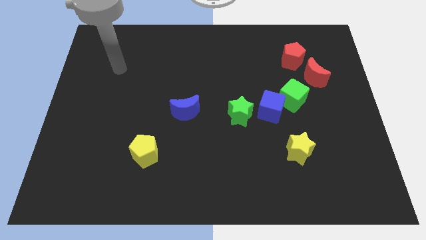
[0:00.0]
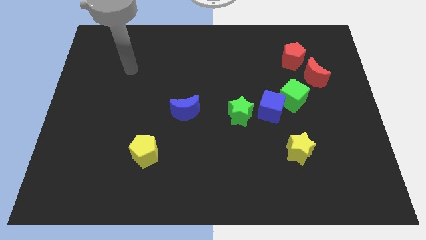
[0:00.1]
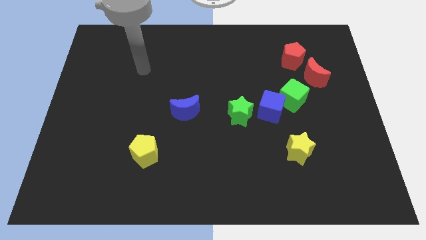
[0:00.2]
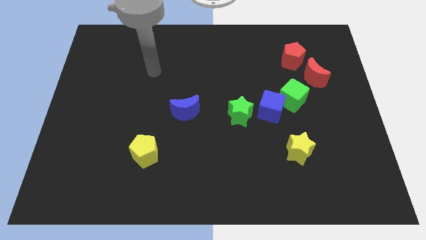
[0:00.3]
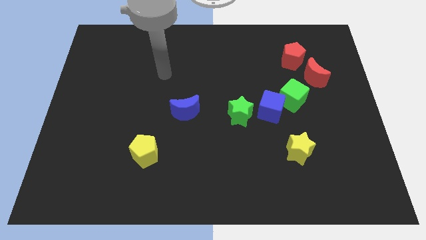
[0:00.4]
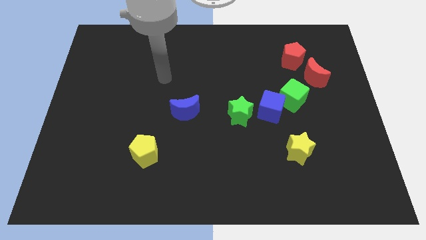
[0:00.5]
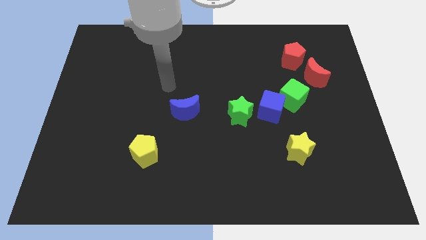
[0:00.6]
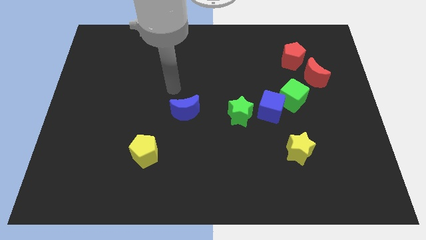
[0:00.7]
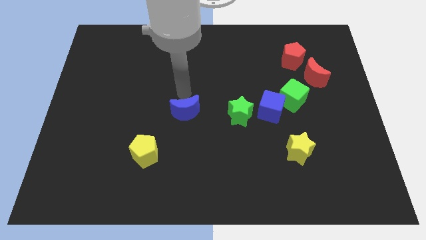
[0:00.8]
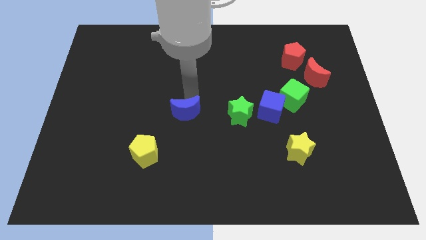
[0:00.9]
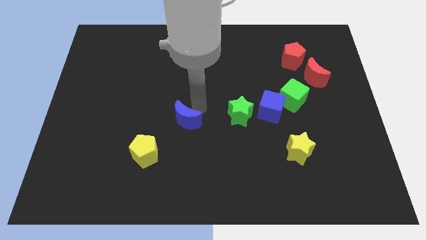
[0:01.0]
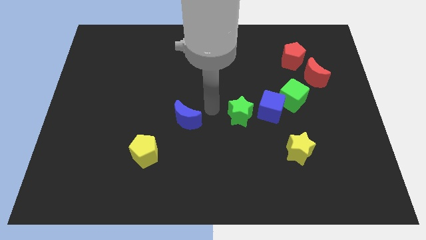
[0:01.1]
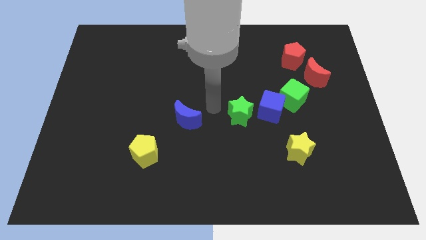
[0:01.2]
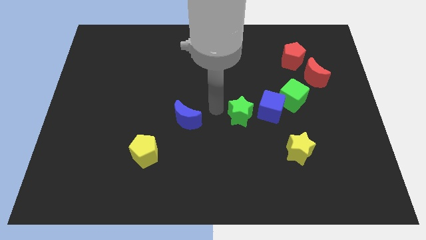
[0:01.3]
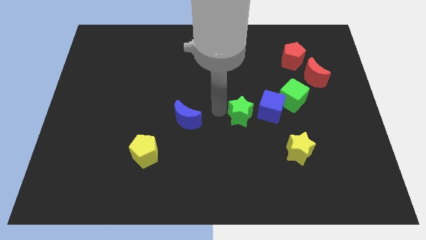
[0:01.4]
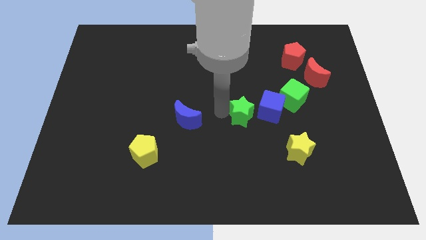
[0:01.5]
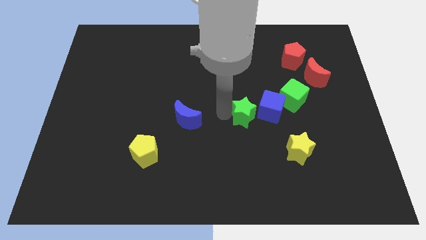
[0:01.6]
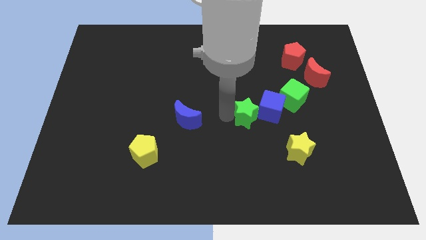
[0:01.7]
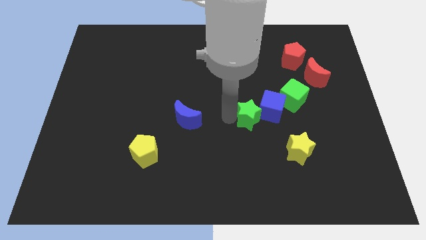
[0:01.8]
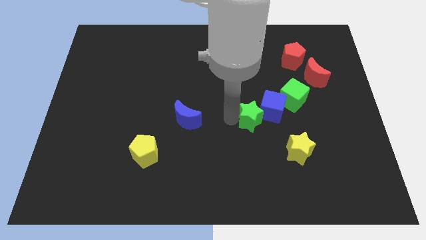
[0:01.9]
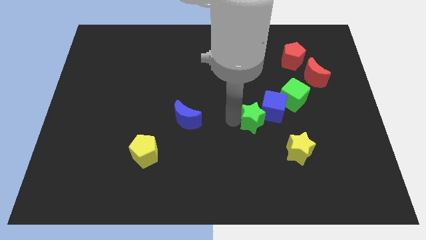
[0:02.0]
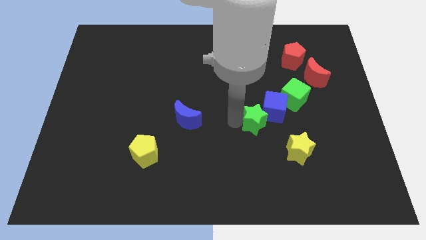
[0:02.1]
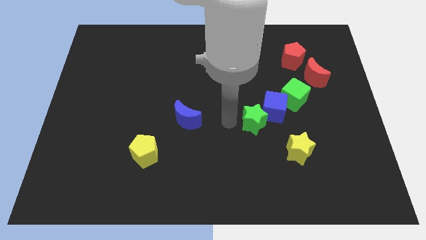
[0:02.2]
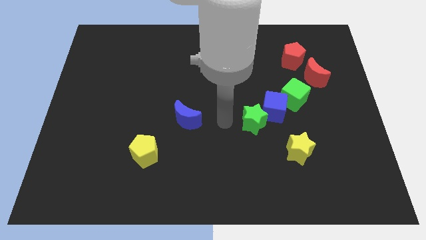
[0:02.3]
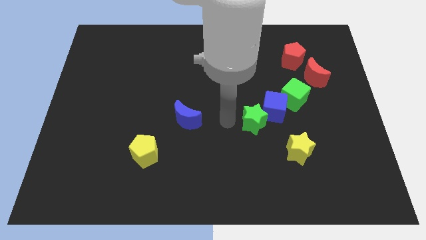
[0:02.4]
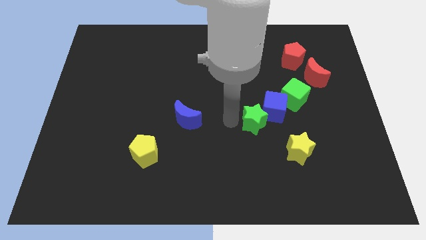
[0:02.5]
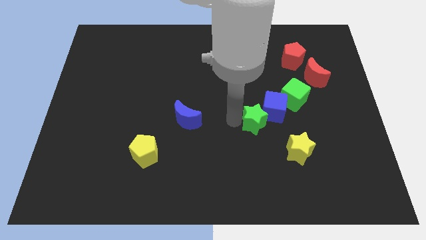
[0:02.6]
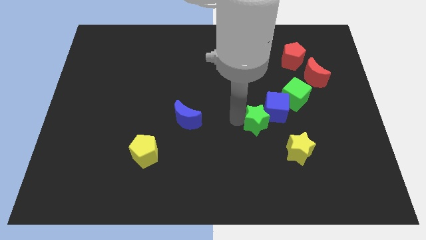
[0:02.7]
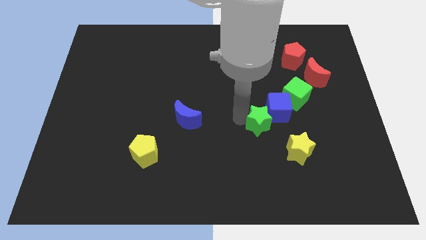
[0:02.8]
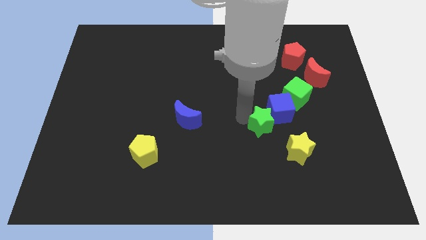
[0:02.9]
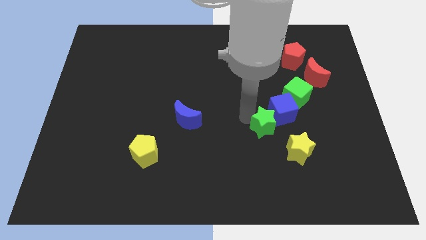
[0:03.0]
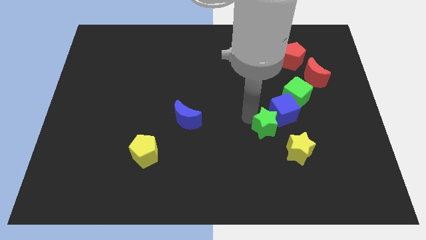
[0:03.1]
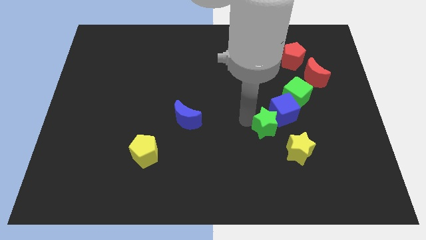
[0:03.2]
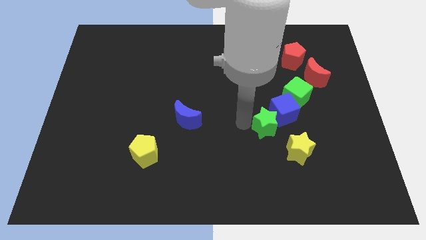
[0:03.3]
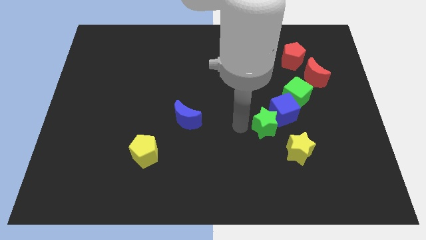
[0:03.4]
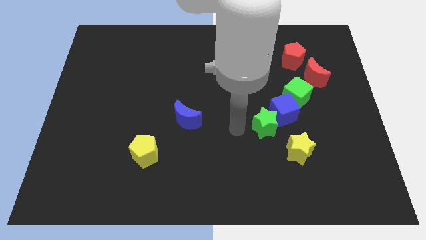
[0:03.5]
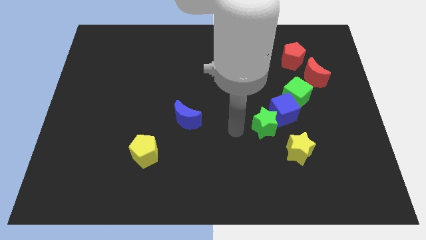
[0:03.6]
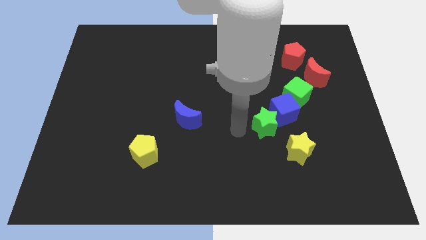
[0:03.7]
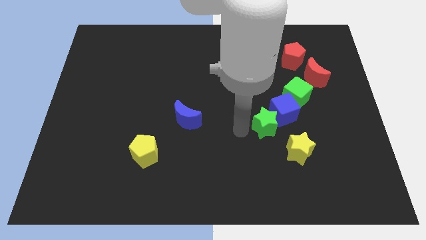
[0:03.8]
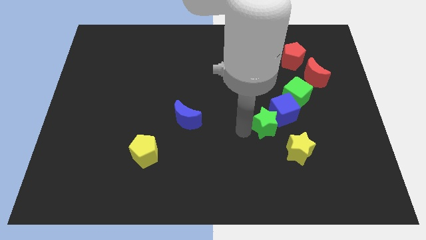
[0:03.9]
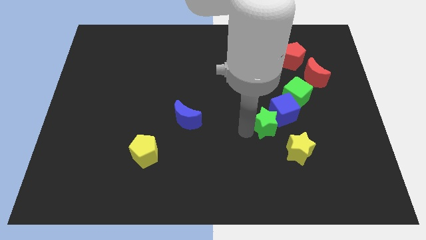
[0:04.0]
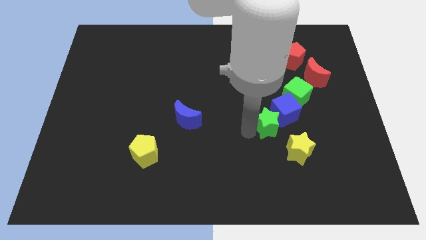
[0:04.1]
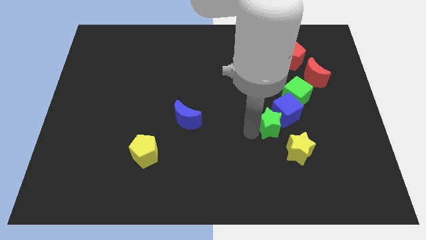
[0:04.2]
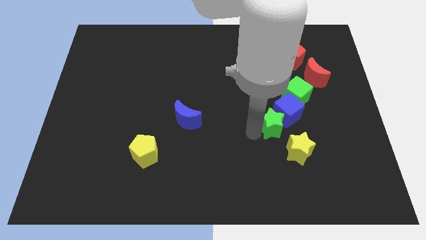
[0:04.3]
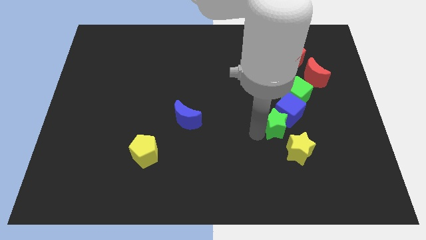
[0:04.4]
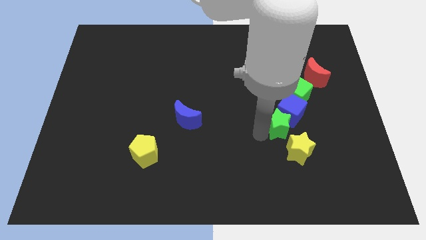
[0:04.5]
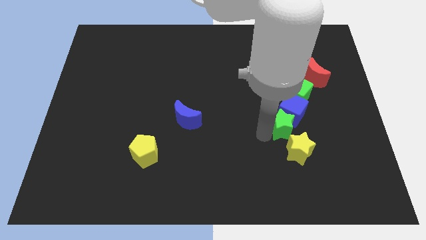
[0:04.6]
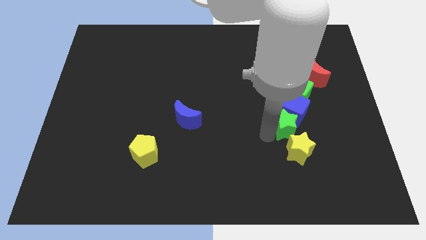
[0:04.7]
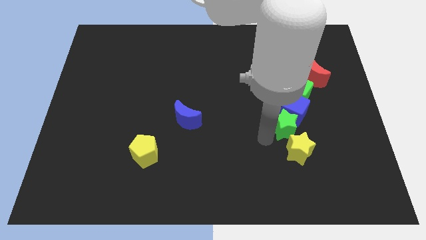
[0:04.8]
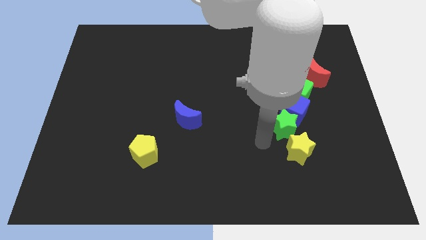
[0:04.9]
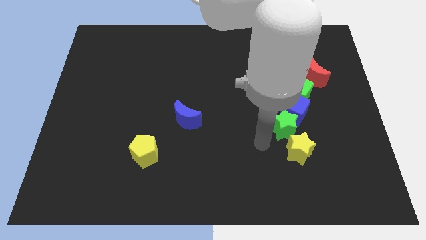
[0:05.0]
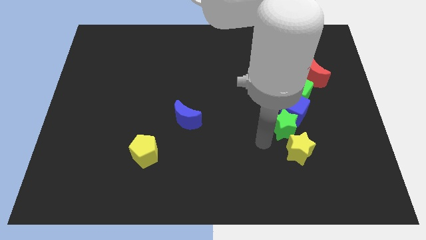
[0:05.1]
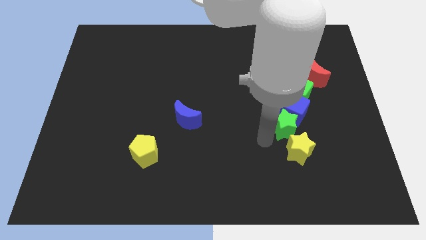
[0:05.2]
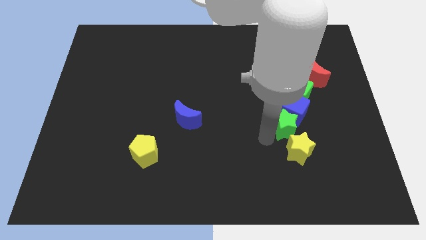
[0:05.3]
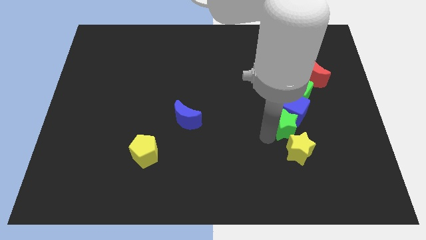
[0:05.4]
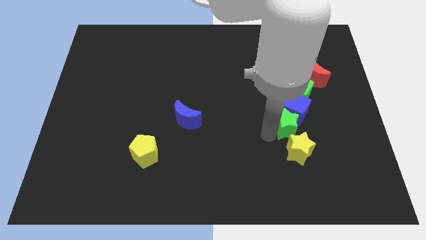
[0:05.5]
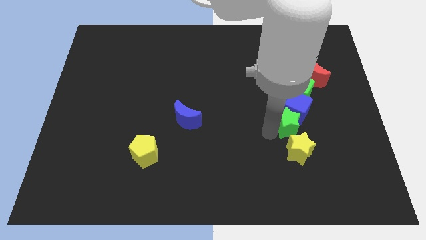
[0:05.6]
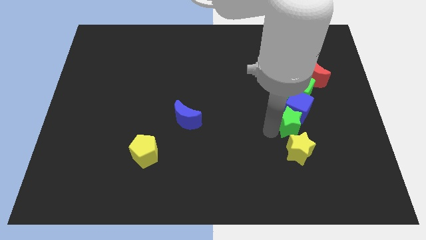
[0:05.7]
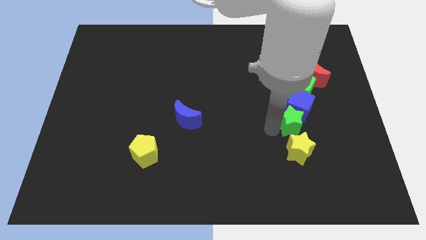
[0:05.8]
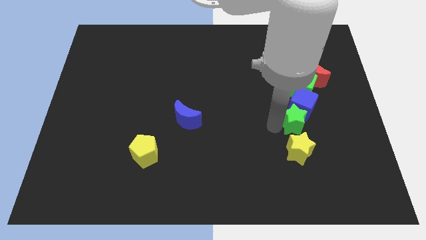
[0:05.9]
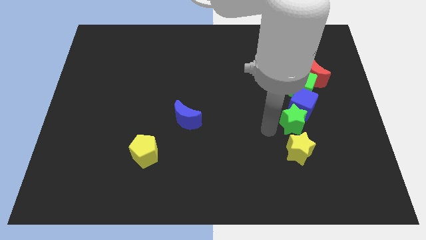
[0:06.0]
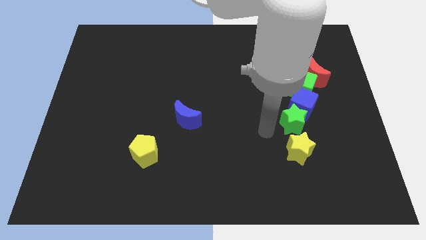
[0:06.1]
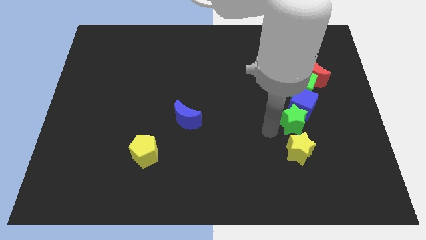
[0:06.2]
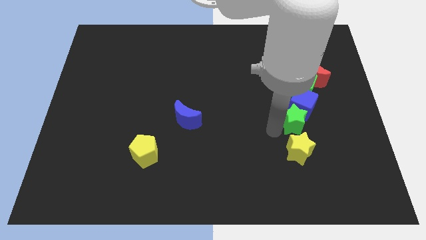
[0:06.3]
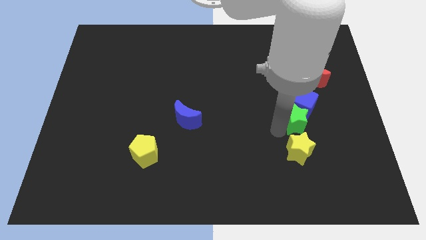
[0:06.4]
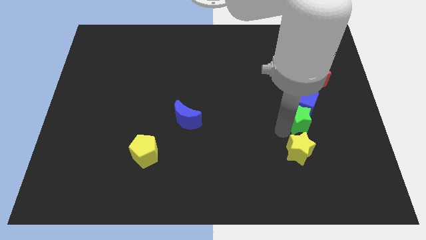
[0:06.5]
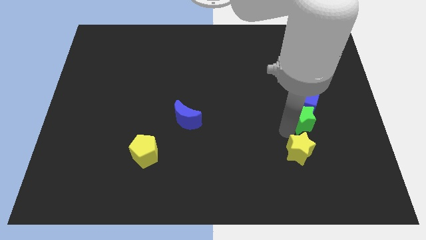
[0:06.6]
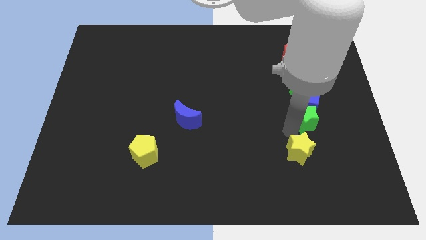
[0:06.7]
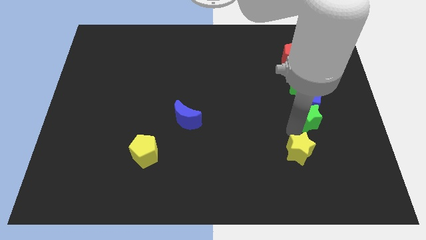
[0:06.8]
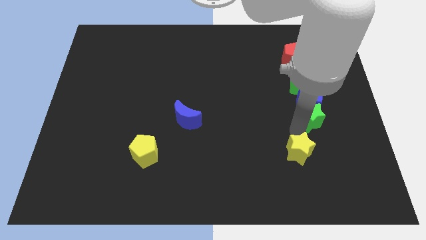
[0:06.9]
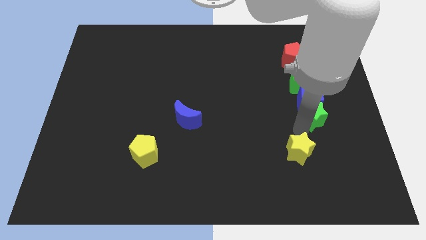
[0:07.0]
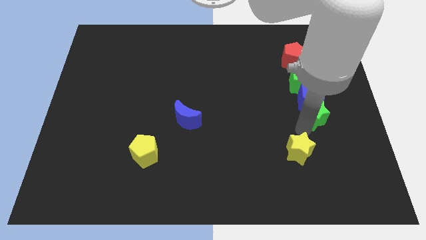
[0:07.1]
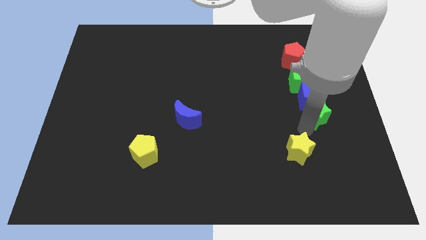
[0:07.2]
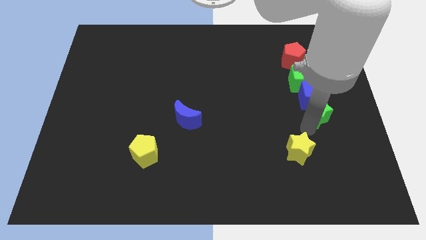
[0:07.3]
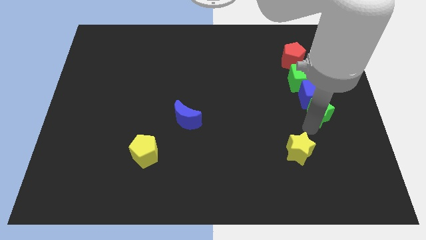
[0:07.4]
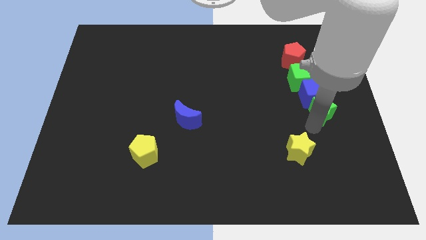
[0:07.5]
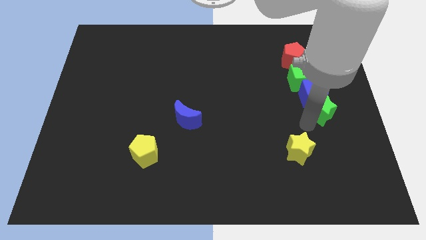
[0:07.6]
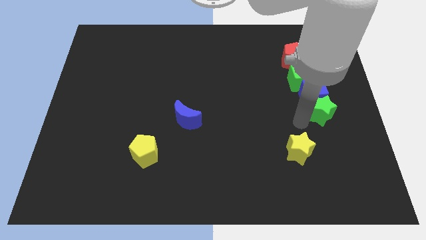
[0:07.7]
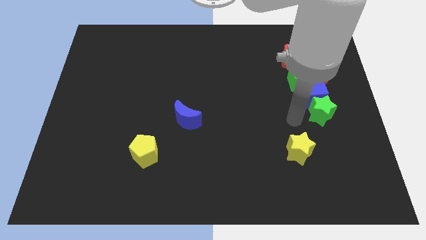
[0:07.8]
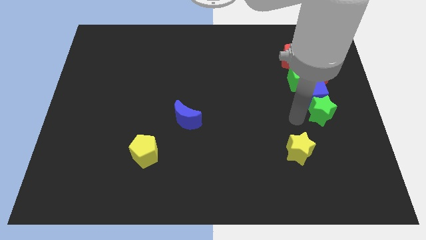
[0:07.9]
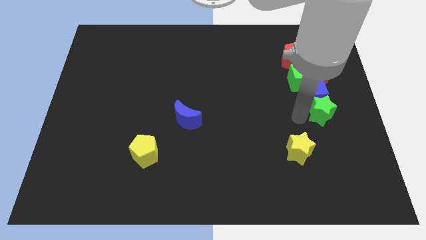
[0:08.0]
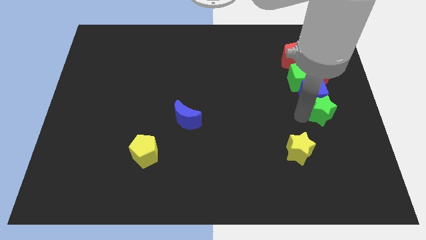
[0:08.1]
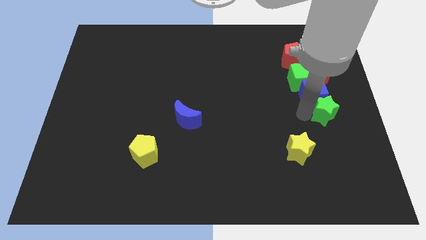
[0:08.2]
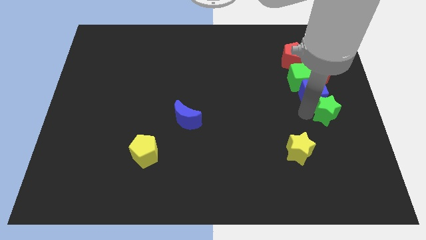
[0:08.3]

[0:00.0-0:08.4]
push the green star to the center right
